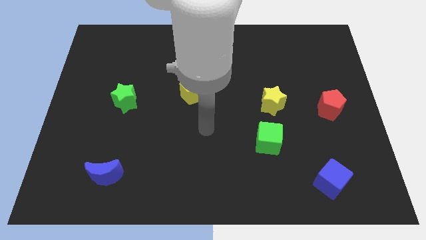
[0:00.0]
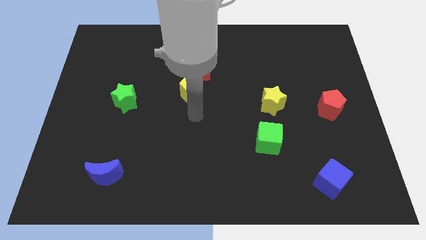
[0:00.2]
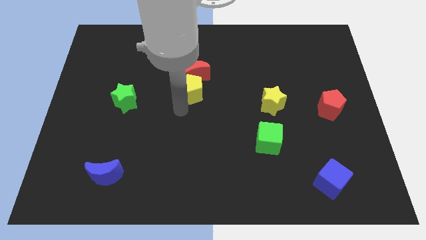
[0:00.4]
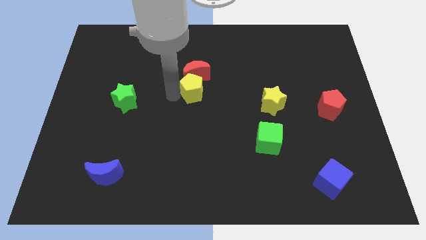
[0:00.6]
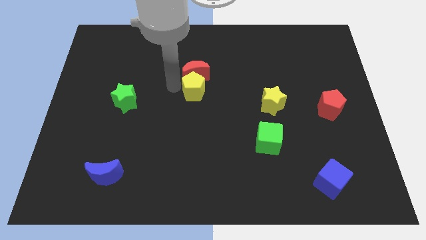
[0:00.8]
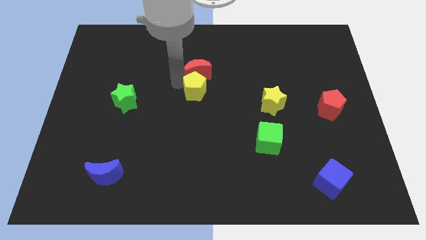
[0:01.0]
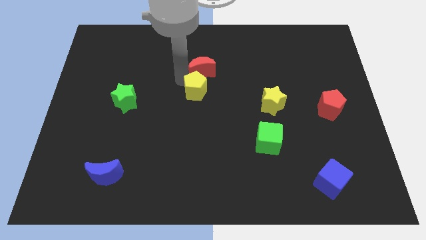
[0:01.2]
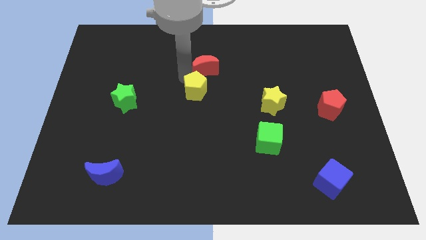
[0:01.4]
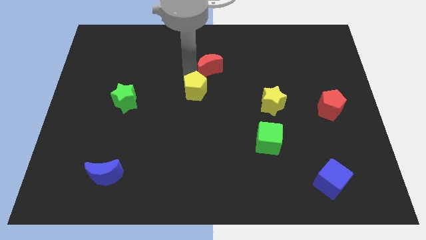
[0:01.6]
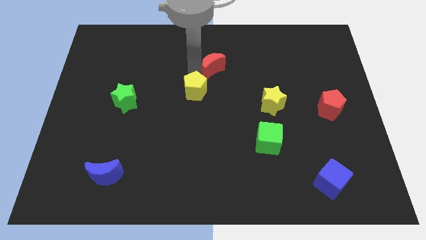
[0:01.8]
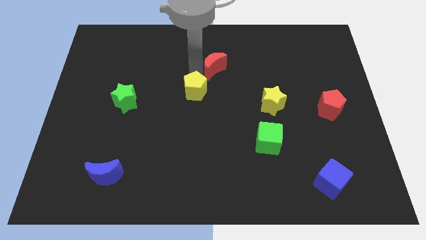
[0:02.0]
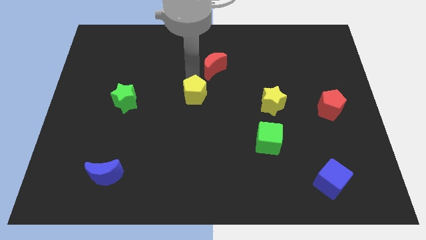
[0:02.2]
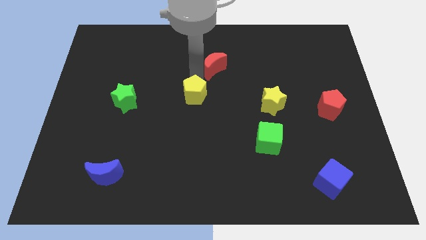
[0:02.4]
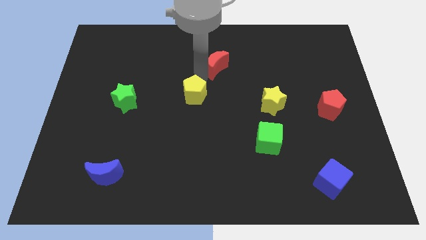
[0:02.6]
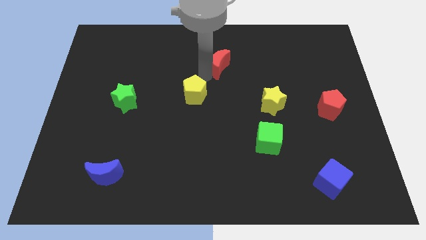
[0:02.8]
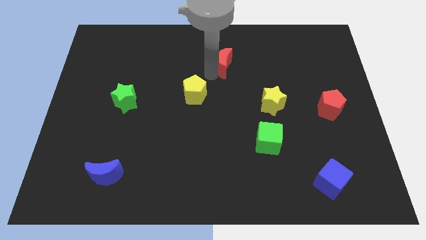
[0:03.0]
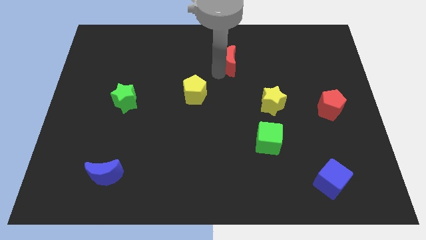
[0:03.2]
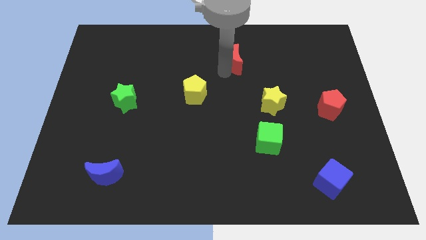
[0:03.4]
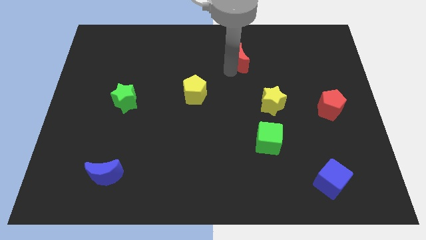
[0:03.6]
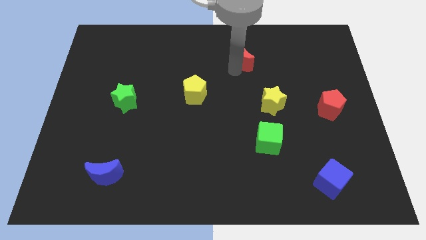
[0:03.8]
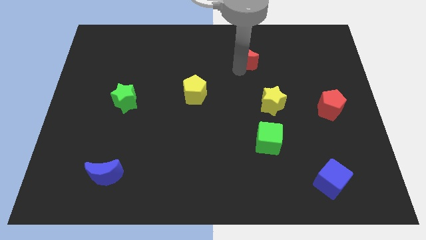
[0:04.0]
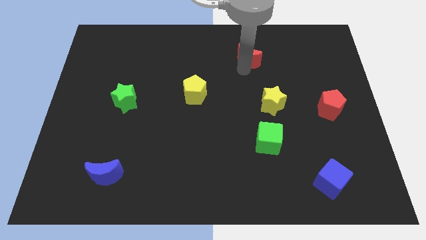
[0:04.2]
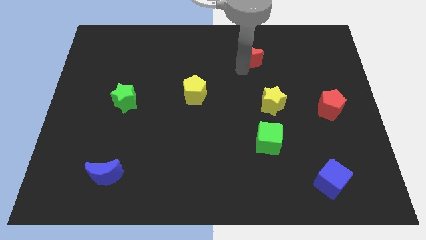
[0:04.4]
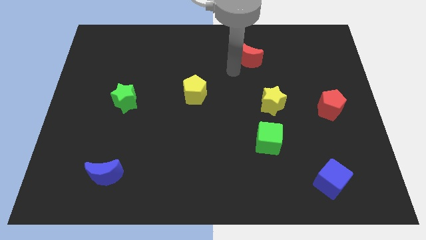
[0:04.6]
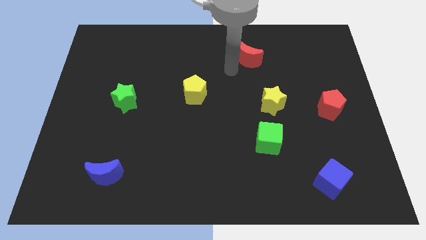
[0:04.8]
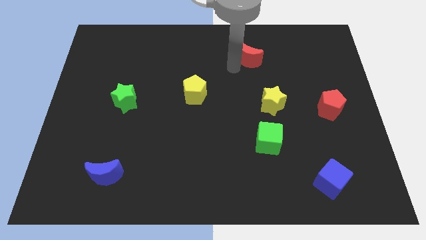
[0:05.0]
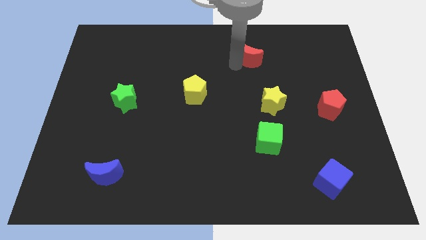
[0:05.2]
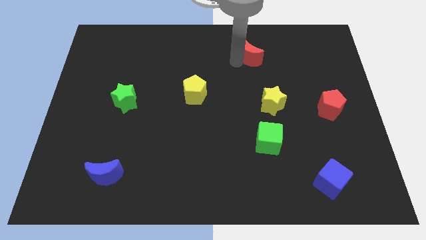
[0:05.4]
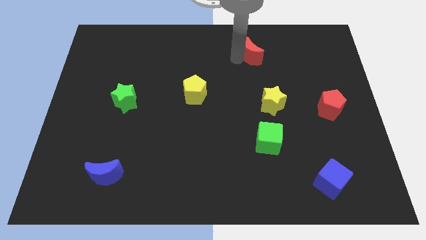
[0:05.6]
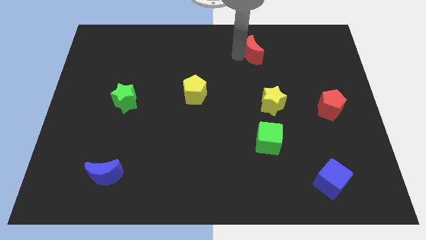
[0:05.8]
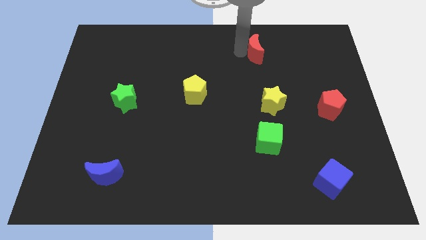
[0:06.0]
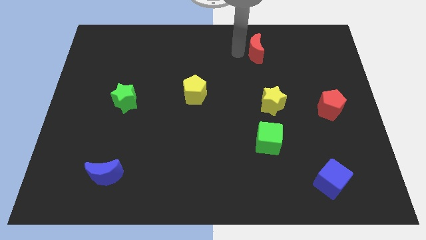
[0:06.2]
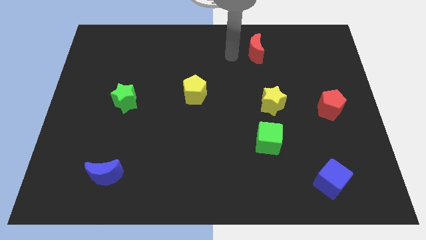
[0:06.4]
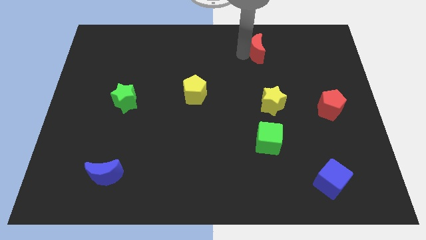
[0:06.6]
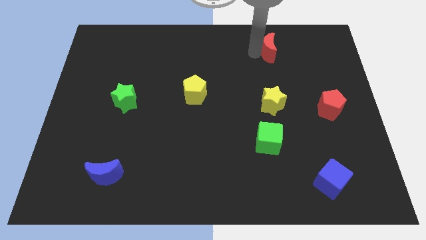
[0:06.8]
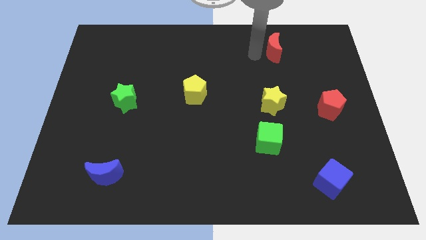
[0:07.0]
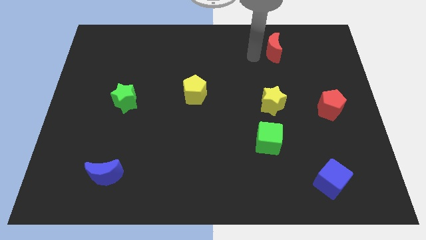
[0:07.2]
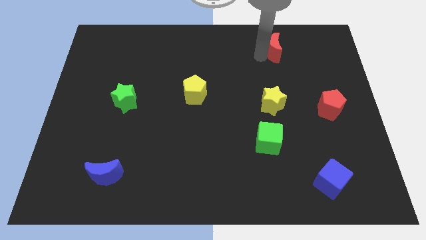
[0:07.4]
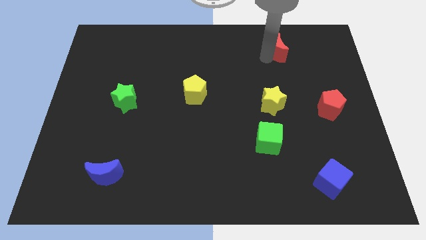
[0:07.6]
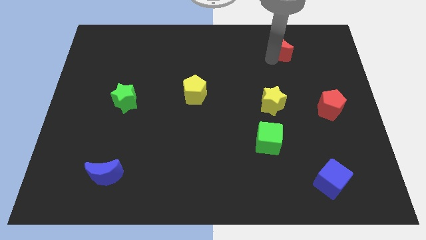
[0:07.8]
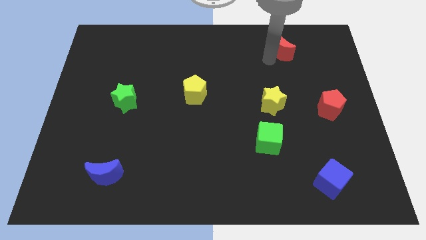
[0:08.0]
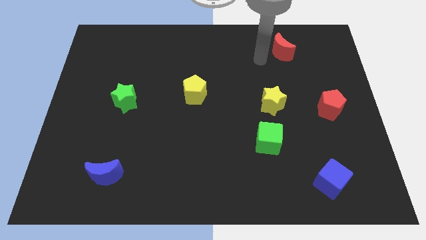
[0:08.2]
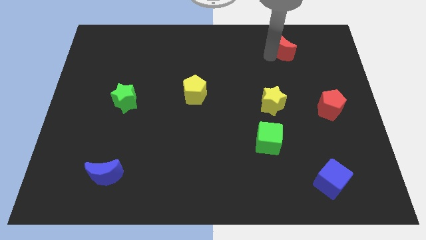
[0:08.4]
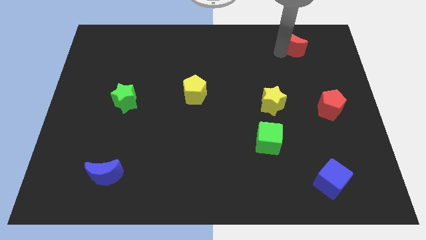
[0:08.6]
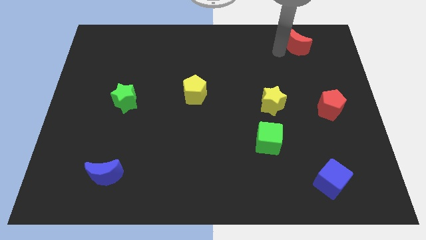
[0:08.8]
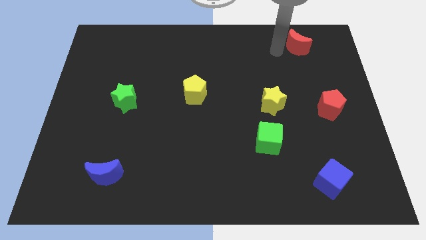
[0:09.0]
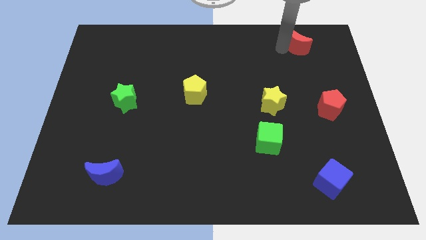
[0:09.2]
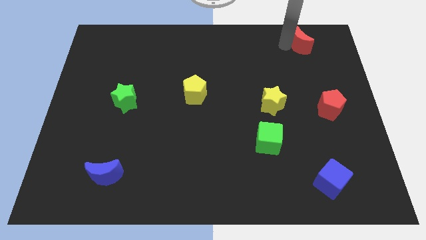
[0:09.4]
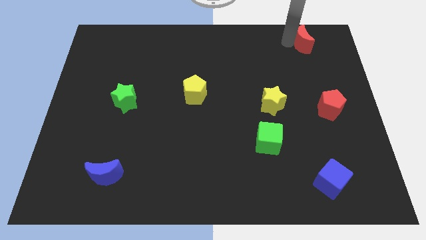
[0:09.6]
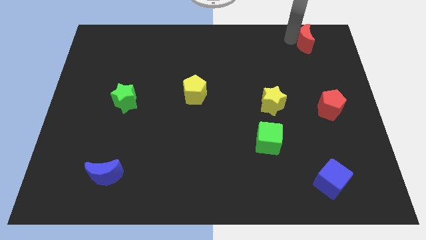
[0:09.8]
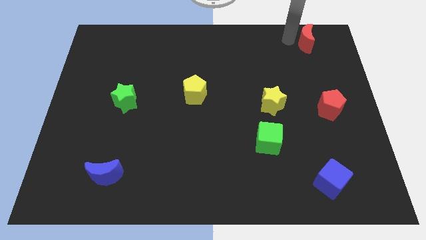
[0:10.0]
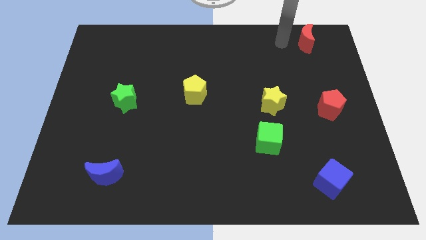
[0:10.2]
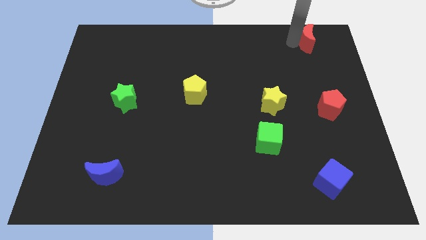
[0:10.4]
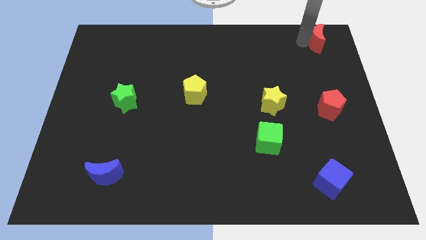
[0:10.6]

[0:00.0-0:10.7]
push the red moon to the top right of the board
